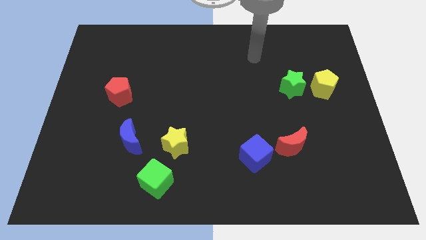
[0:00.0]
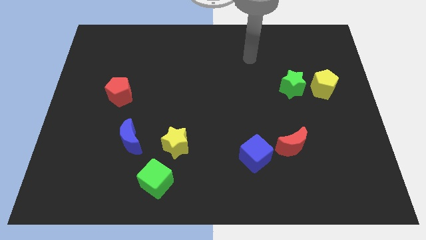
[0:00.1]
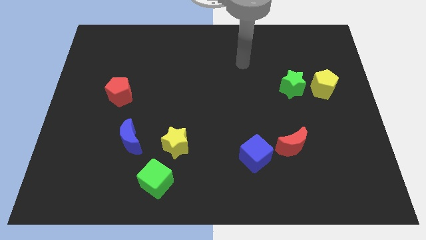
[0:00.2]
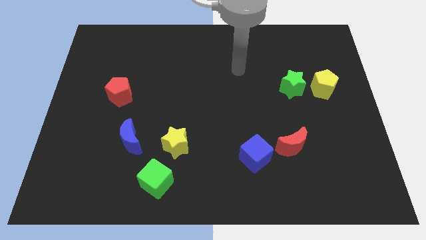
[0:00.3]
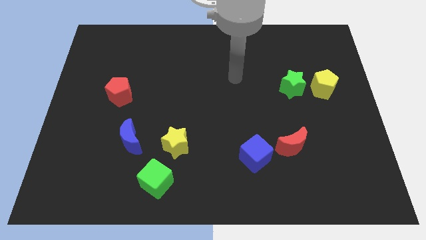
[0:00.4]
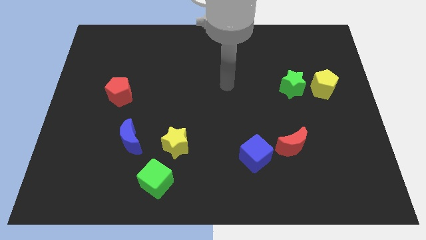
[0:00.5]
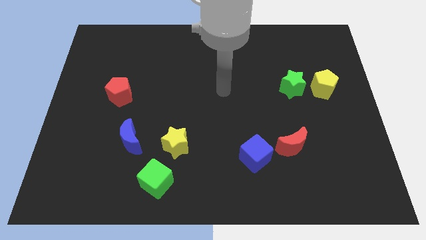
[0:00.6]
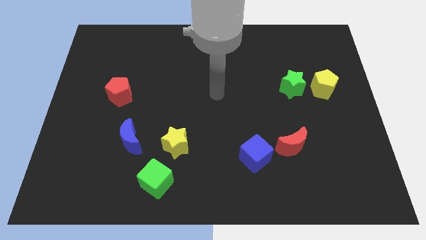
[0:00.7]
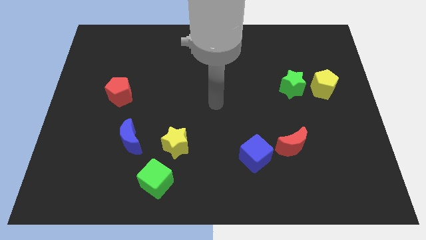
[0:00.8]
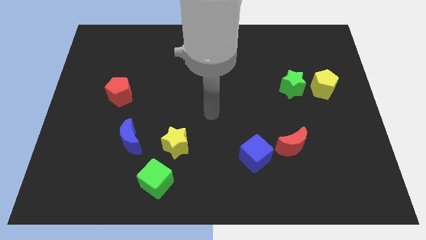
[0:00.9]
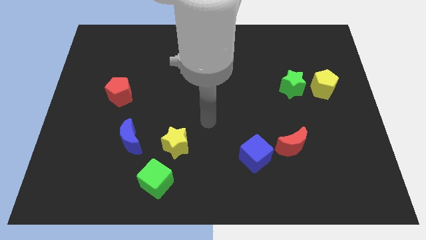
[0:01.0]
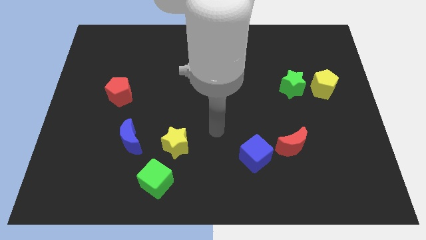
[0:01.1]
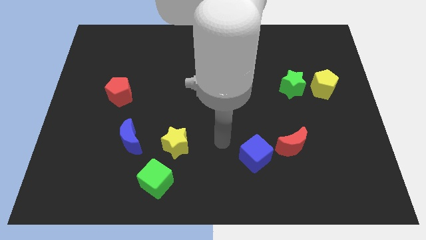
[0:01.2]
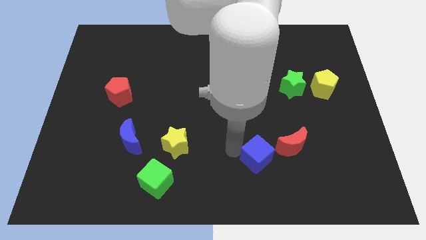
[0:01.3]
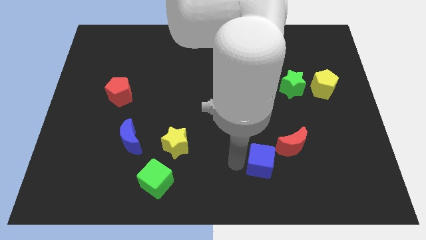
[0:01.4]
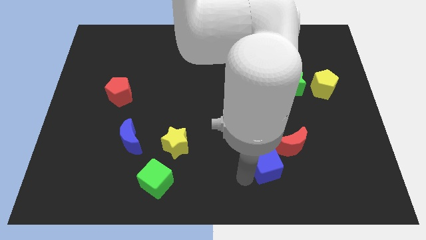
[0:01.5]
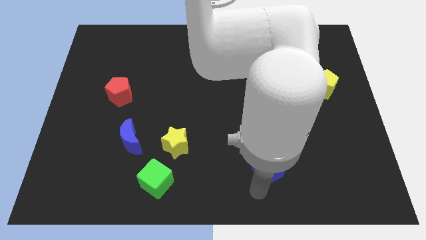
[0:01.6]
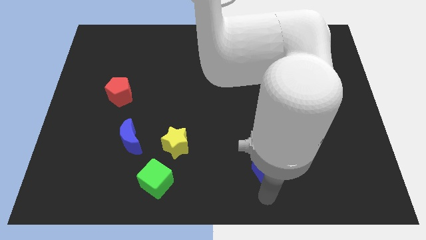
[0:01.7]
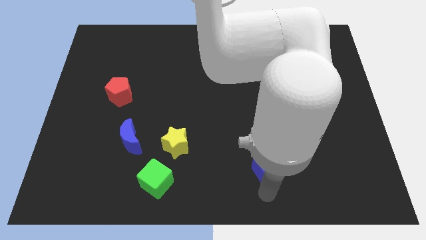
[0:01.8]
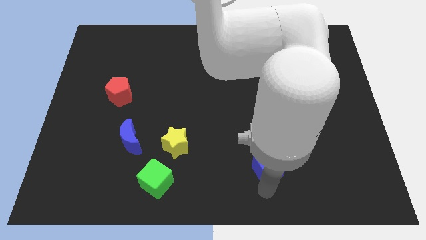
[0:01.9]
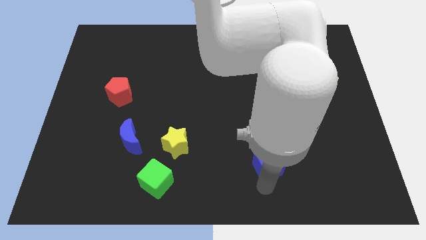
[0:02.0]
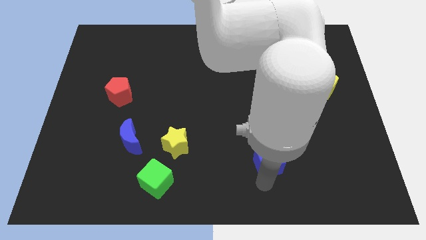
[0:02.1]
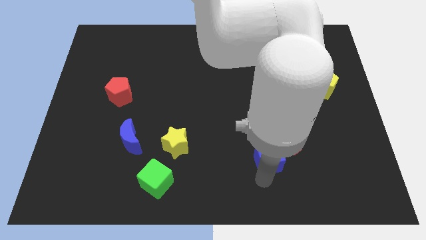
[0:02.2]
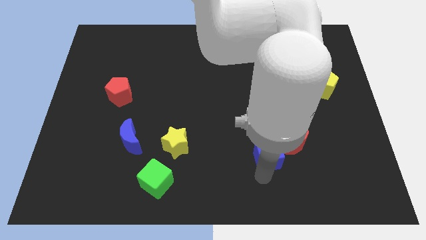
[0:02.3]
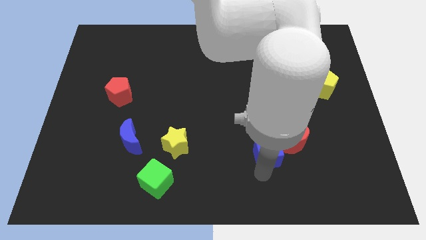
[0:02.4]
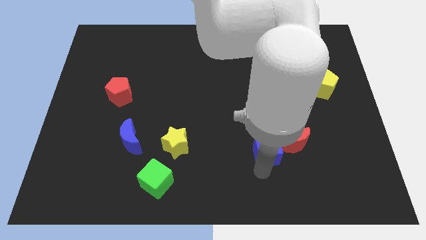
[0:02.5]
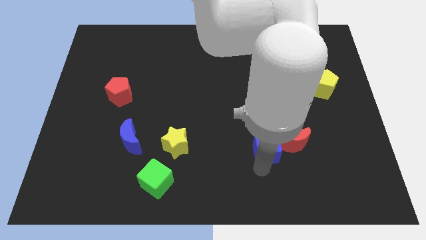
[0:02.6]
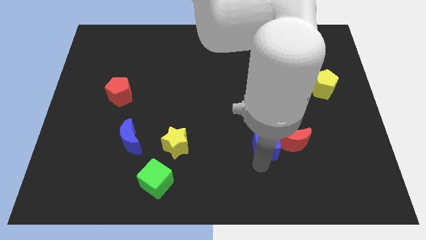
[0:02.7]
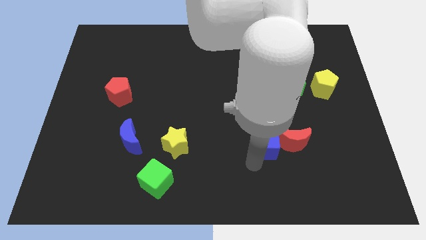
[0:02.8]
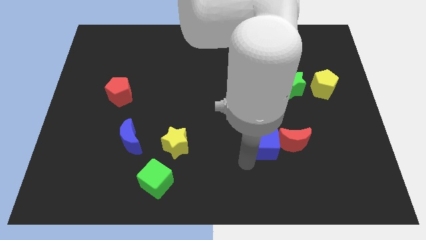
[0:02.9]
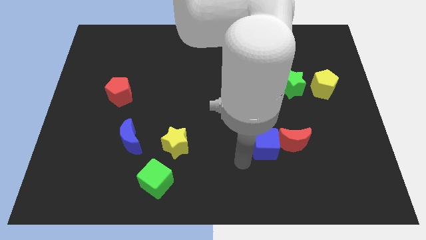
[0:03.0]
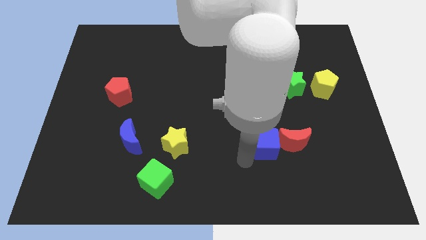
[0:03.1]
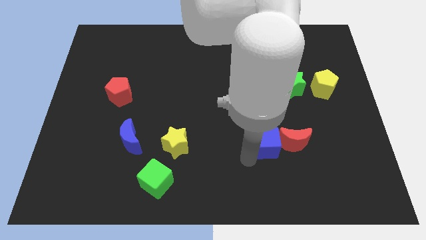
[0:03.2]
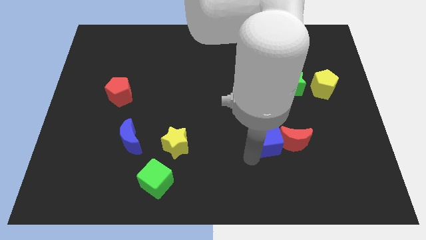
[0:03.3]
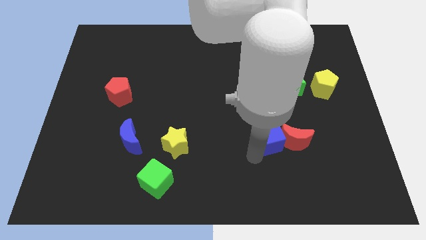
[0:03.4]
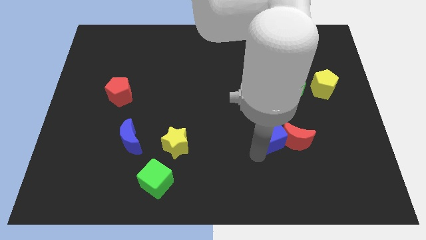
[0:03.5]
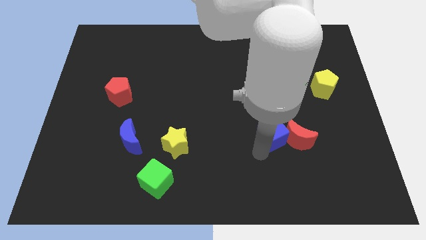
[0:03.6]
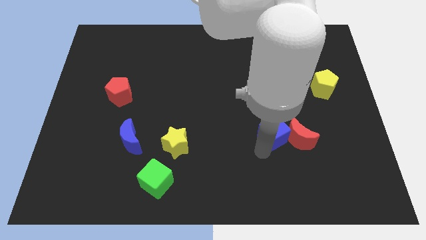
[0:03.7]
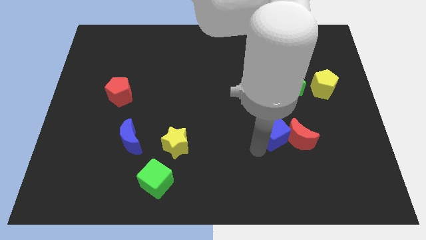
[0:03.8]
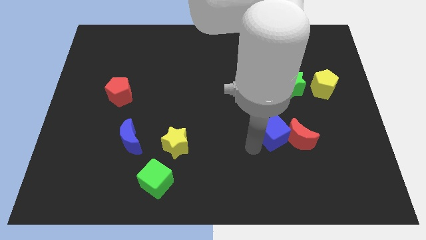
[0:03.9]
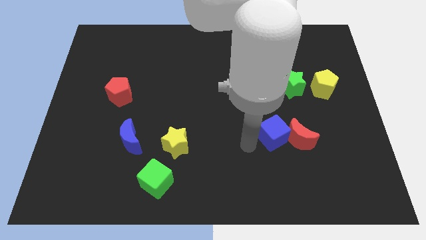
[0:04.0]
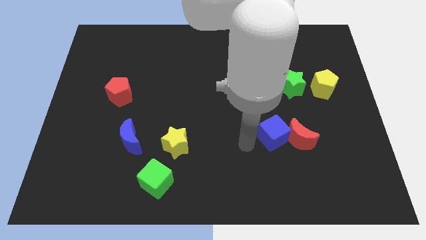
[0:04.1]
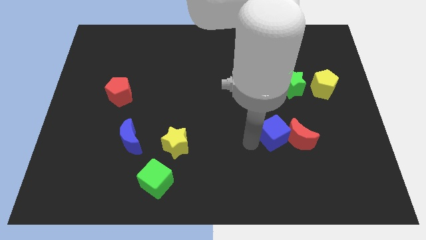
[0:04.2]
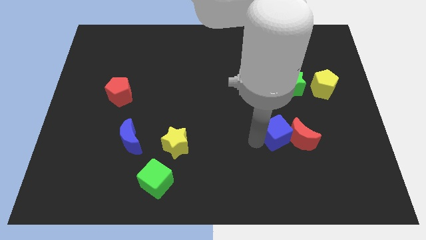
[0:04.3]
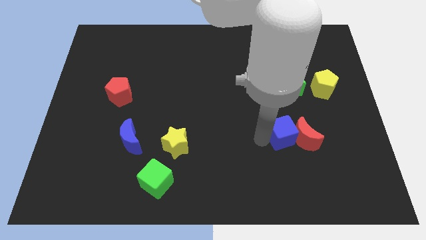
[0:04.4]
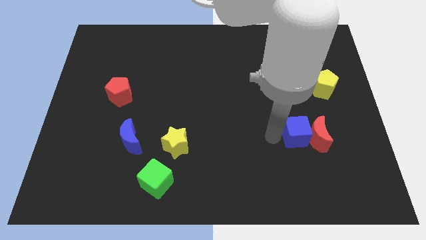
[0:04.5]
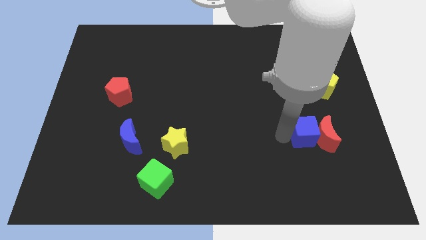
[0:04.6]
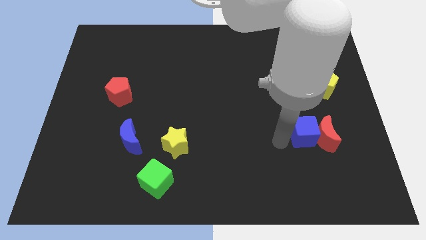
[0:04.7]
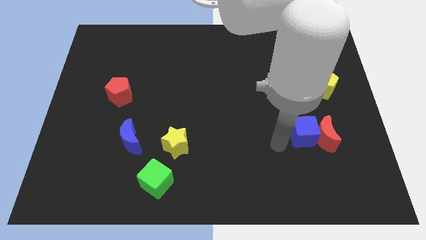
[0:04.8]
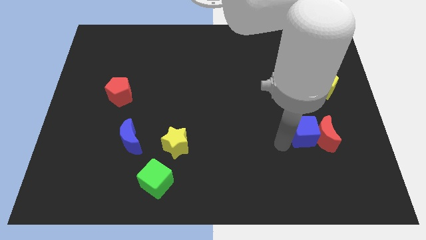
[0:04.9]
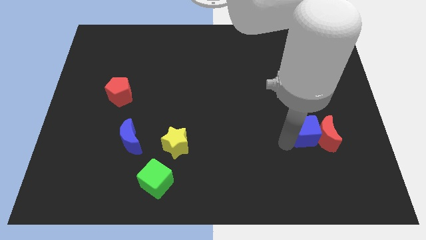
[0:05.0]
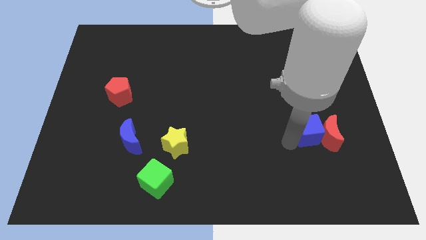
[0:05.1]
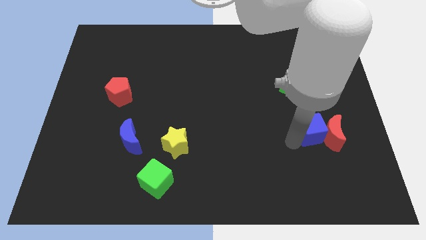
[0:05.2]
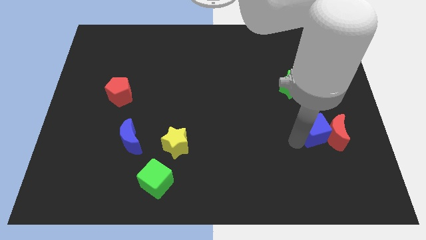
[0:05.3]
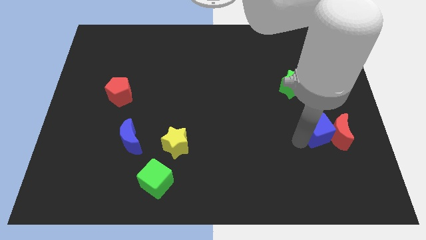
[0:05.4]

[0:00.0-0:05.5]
put the blue cube to the bottom side of the yellow pentagon

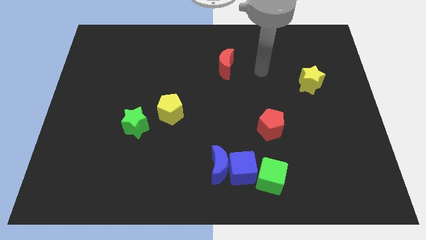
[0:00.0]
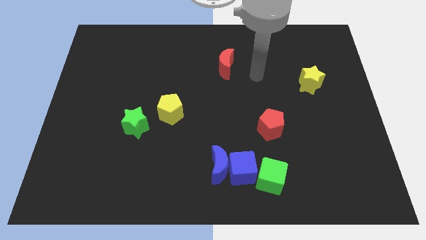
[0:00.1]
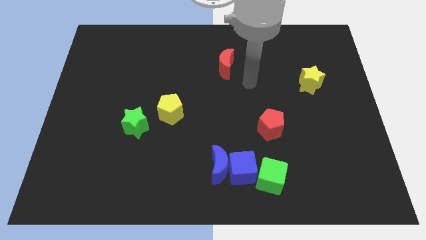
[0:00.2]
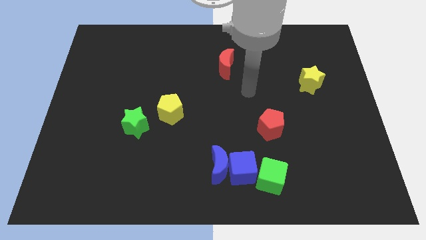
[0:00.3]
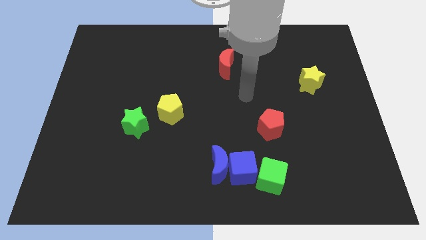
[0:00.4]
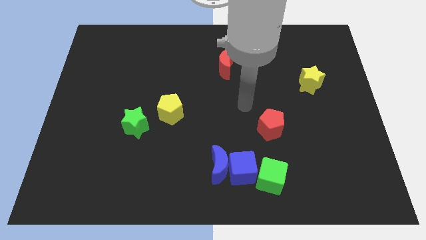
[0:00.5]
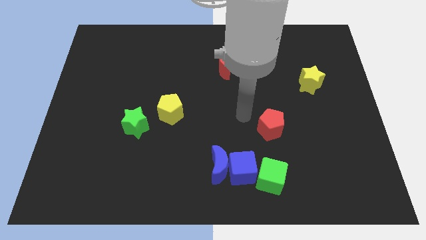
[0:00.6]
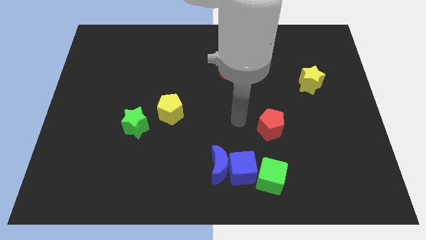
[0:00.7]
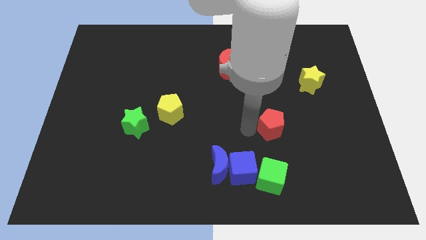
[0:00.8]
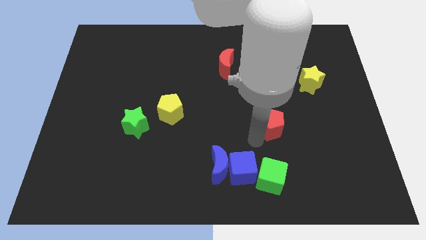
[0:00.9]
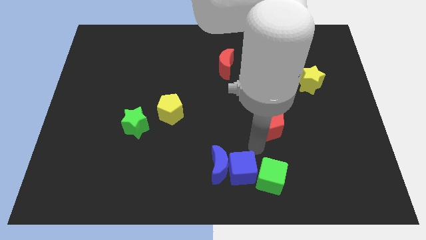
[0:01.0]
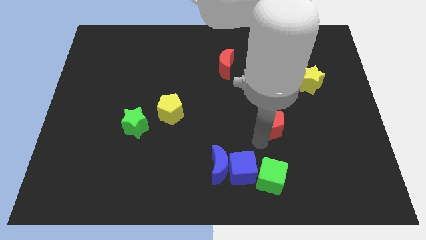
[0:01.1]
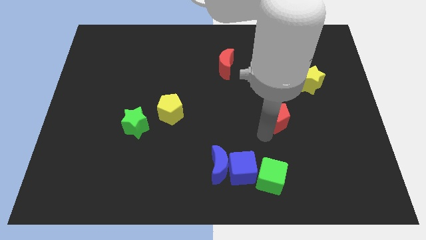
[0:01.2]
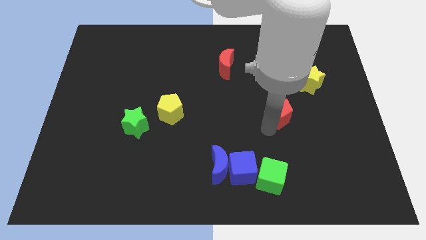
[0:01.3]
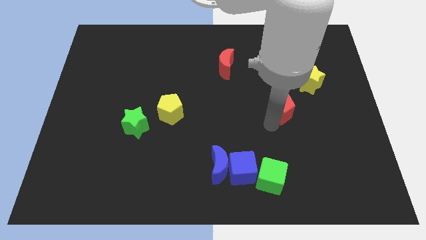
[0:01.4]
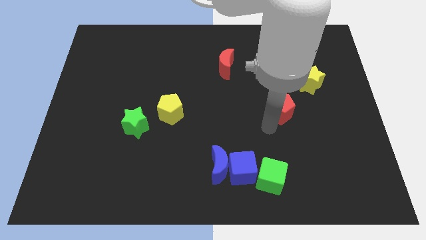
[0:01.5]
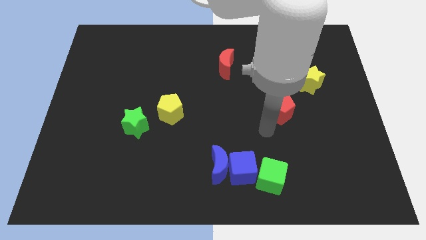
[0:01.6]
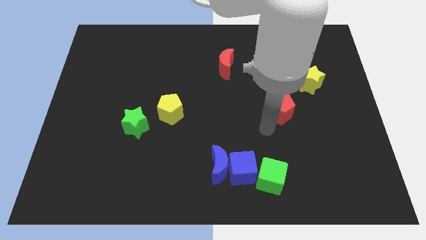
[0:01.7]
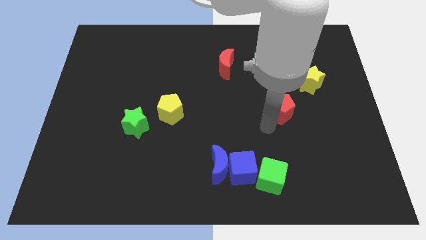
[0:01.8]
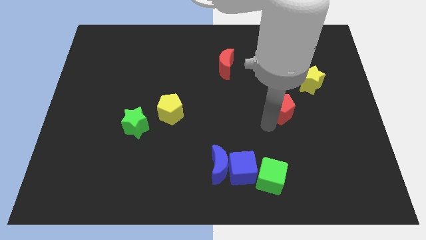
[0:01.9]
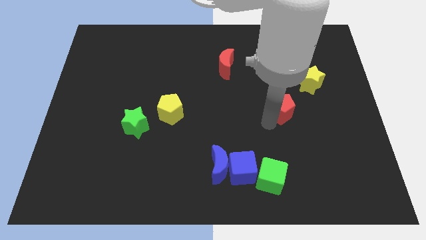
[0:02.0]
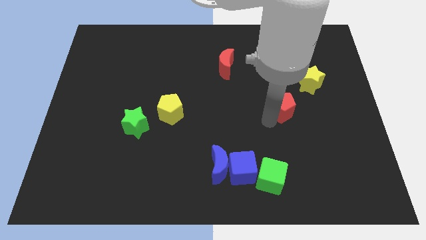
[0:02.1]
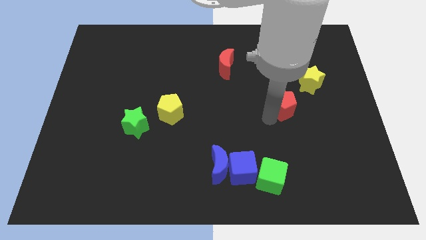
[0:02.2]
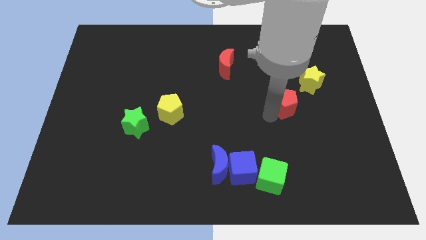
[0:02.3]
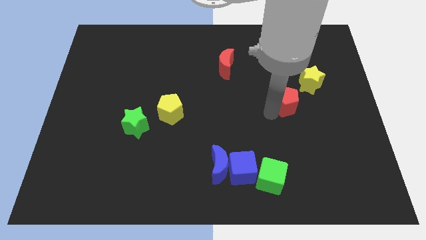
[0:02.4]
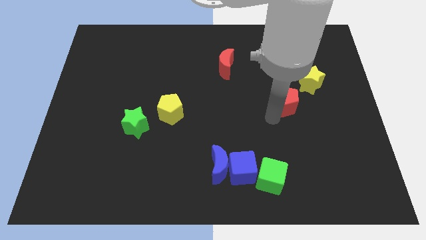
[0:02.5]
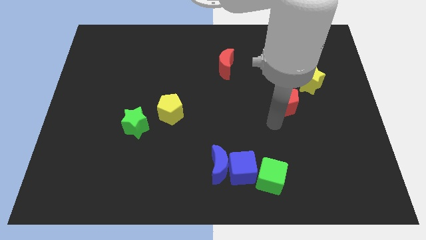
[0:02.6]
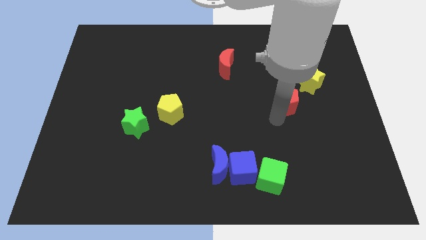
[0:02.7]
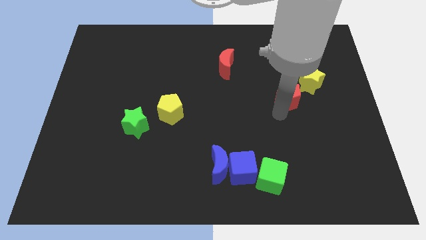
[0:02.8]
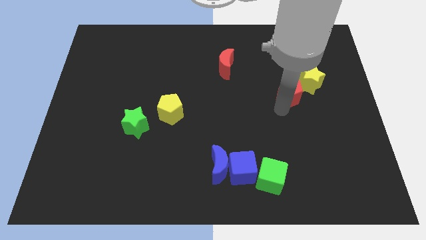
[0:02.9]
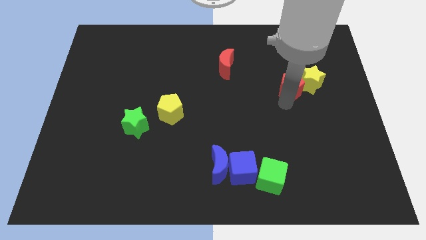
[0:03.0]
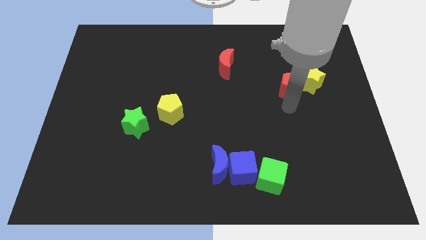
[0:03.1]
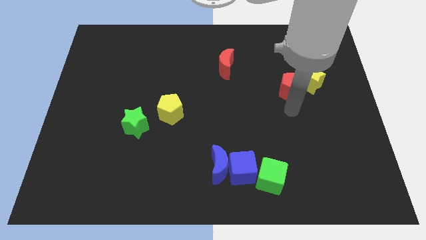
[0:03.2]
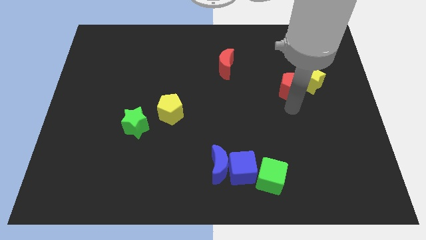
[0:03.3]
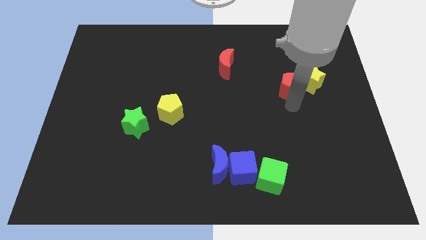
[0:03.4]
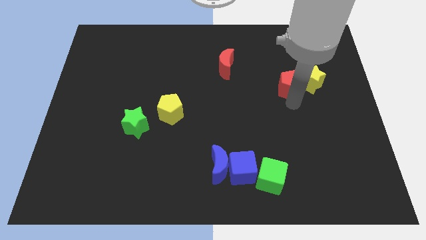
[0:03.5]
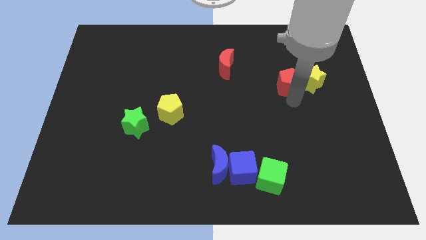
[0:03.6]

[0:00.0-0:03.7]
push the red pentagon to the top left of the yellow star
